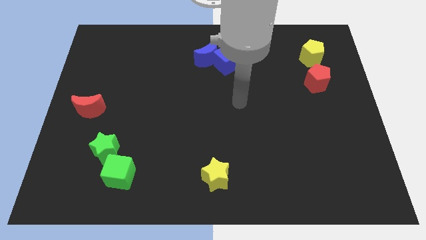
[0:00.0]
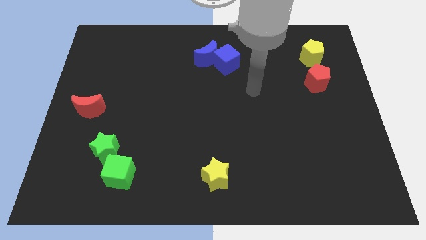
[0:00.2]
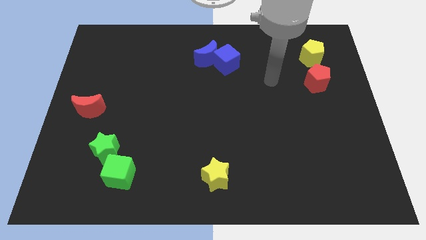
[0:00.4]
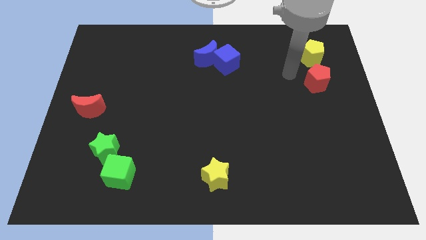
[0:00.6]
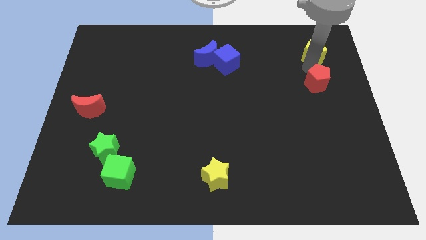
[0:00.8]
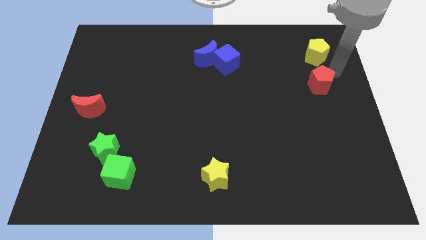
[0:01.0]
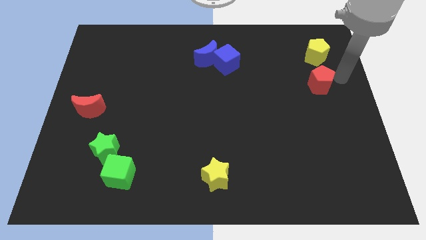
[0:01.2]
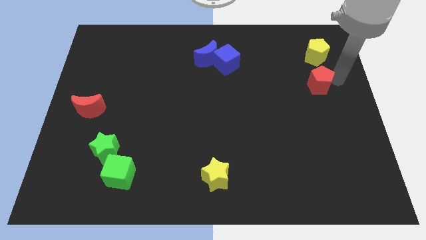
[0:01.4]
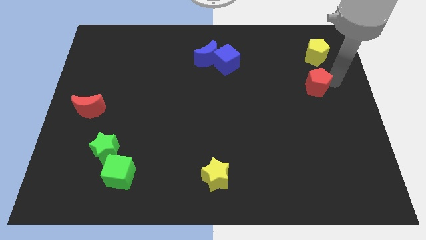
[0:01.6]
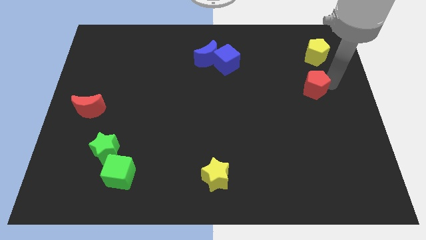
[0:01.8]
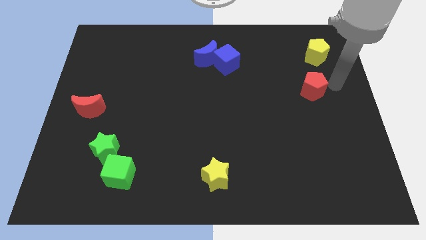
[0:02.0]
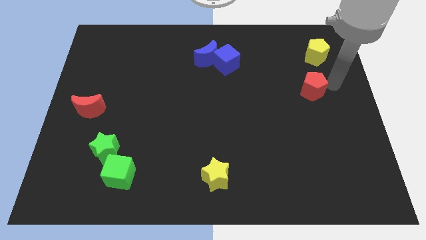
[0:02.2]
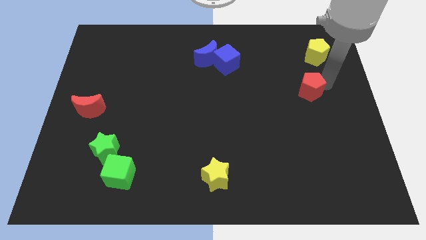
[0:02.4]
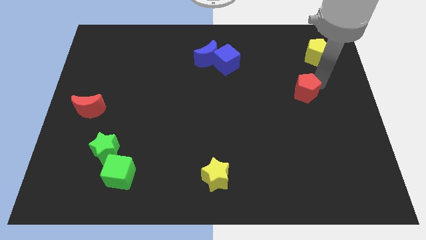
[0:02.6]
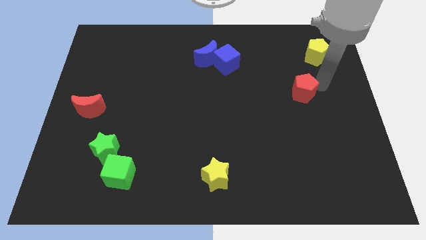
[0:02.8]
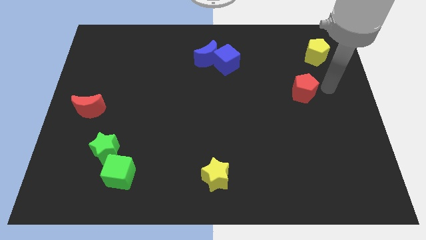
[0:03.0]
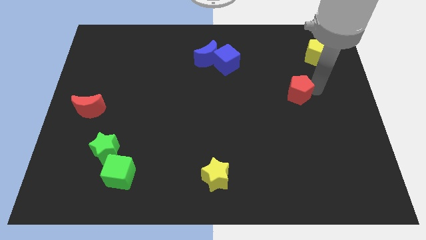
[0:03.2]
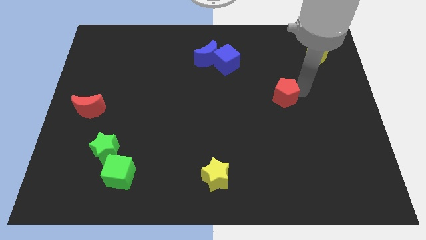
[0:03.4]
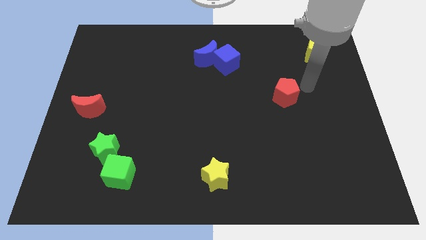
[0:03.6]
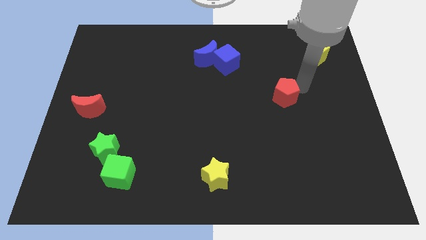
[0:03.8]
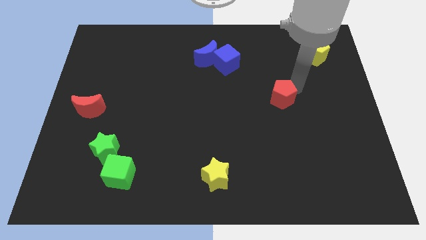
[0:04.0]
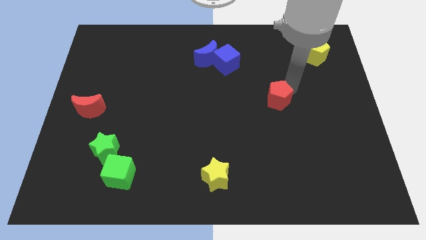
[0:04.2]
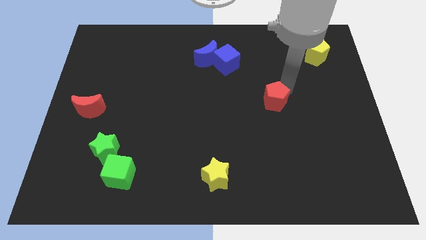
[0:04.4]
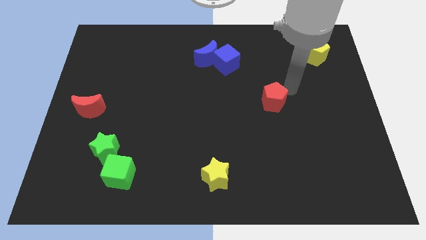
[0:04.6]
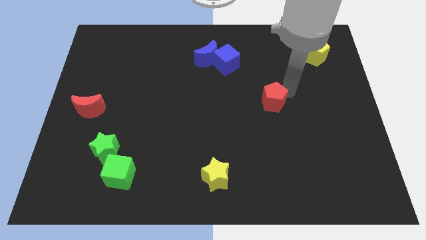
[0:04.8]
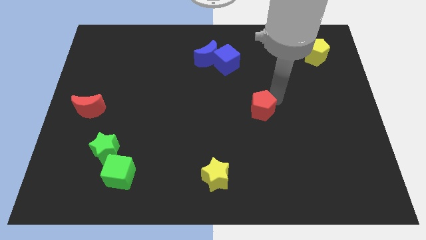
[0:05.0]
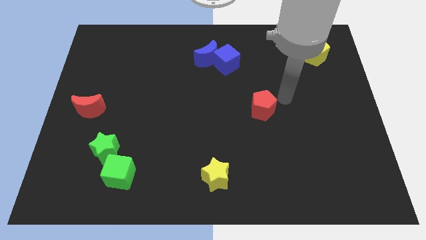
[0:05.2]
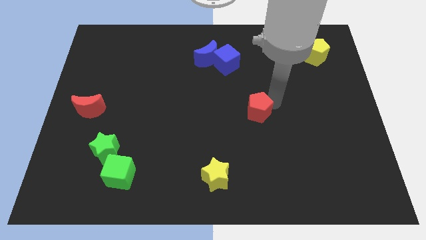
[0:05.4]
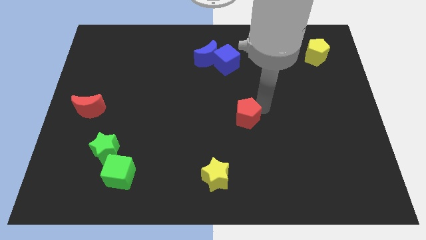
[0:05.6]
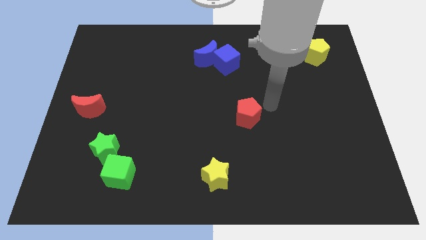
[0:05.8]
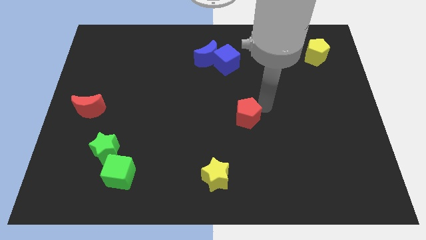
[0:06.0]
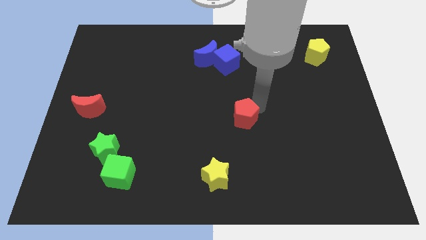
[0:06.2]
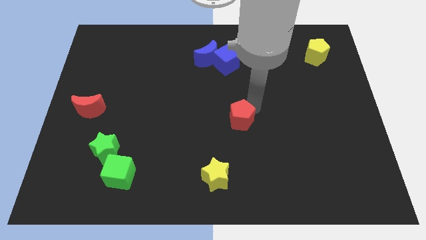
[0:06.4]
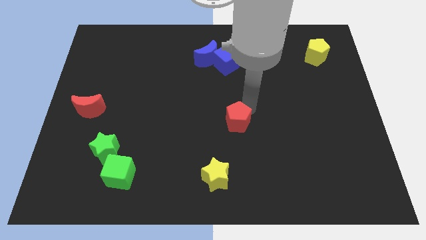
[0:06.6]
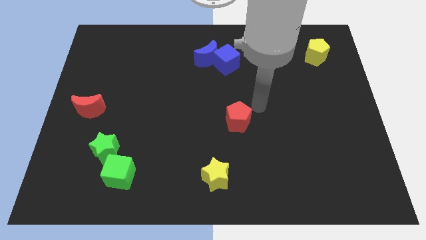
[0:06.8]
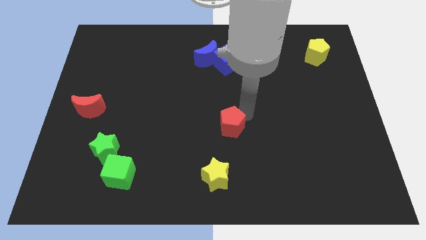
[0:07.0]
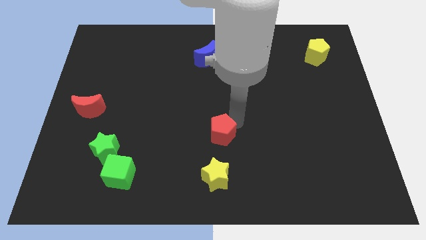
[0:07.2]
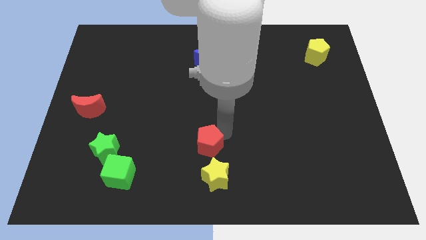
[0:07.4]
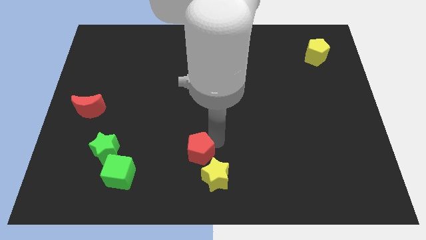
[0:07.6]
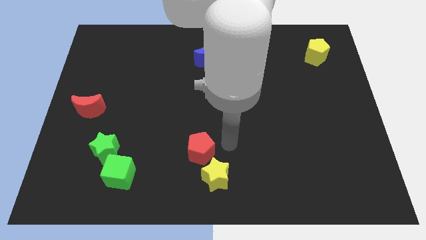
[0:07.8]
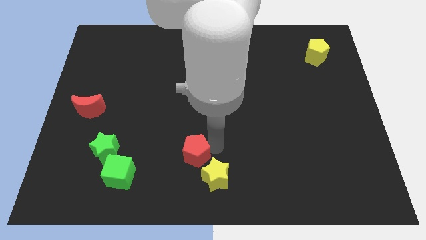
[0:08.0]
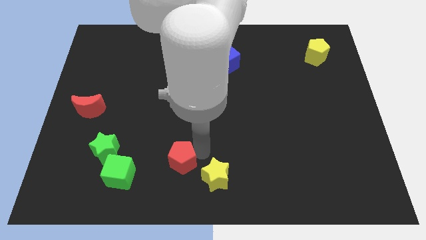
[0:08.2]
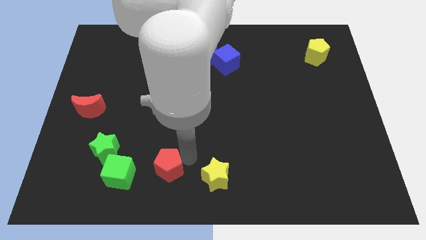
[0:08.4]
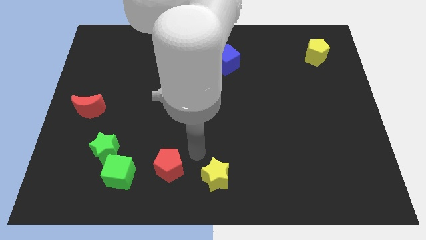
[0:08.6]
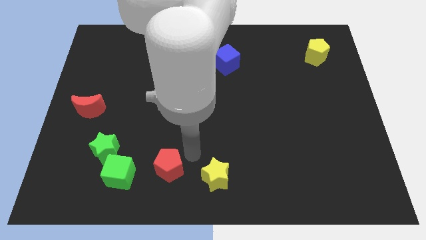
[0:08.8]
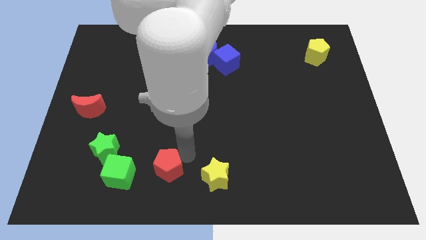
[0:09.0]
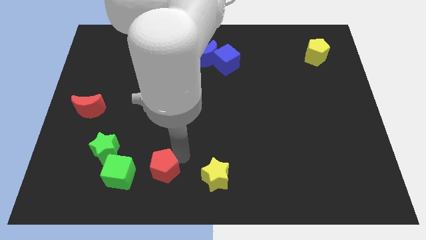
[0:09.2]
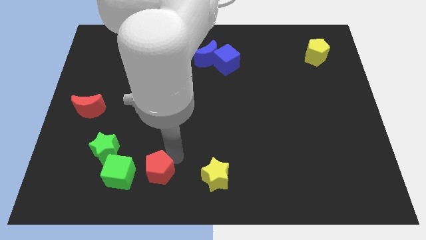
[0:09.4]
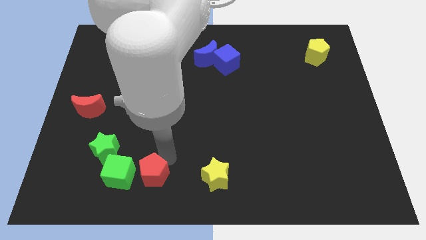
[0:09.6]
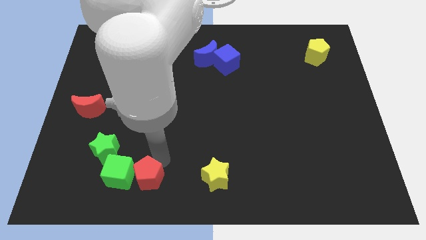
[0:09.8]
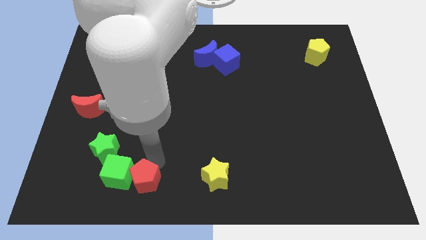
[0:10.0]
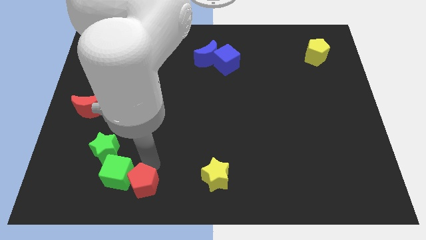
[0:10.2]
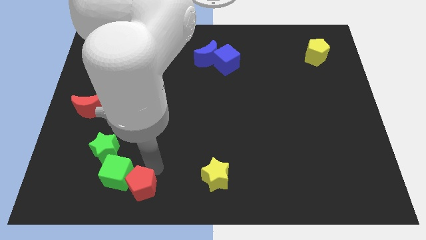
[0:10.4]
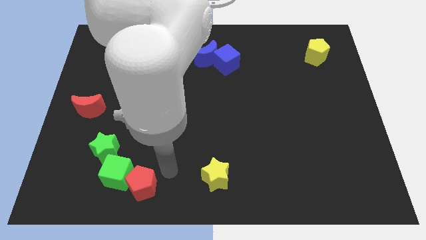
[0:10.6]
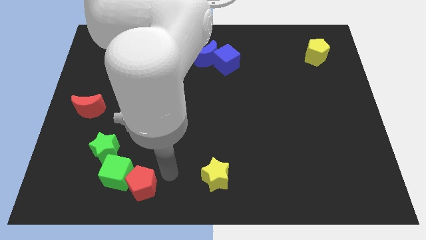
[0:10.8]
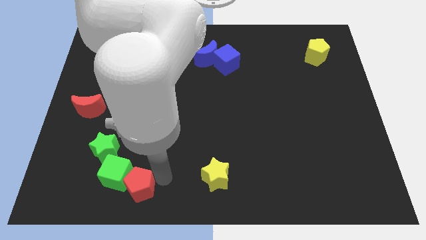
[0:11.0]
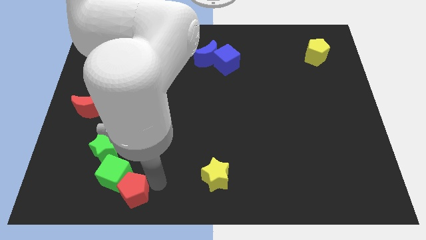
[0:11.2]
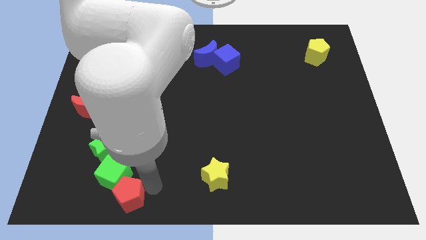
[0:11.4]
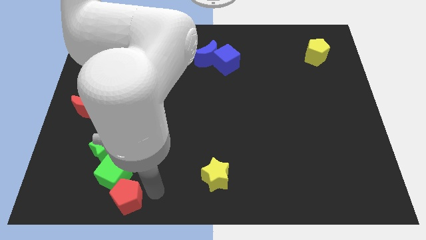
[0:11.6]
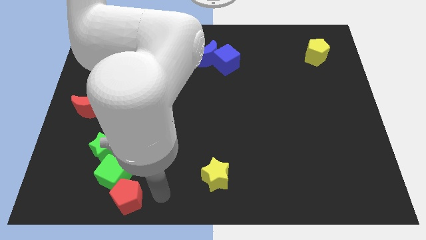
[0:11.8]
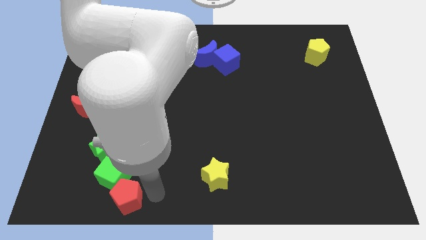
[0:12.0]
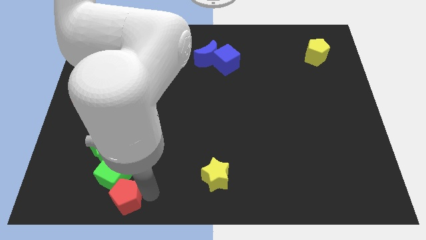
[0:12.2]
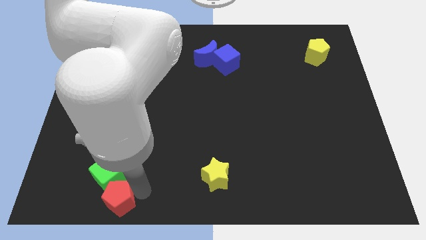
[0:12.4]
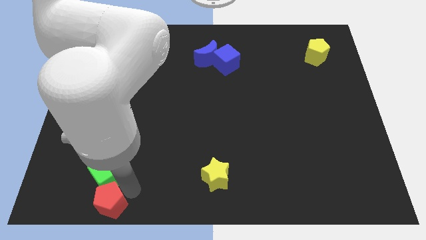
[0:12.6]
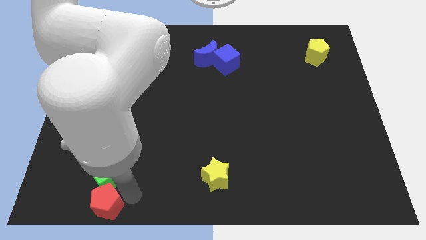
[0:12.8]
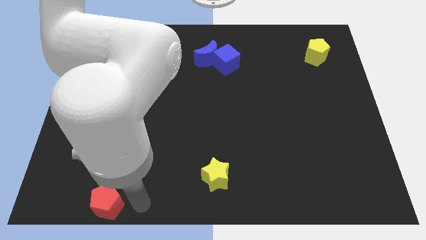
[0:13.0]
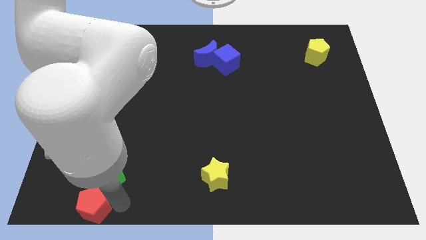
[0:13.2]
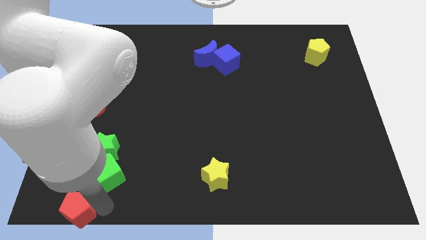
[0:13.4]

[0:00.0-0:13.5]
push the red pentagon to the bottom left
